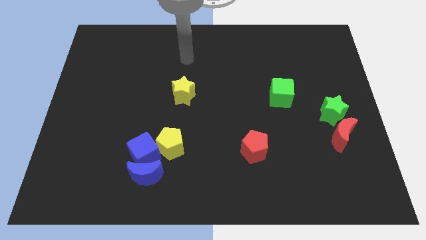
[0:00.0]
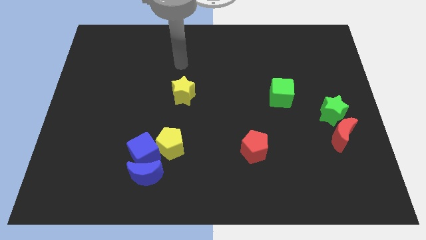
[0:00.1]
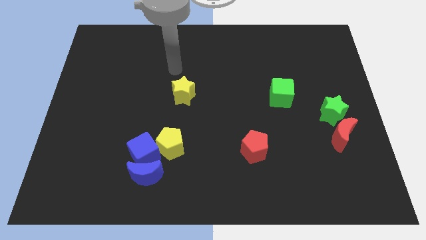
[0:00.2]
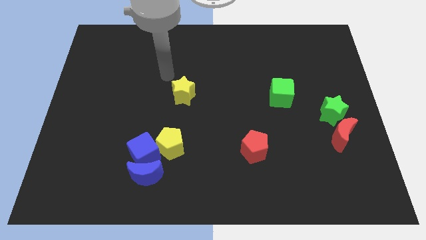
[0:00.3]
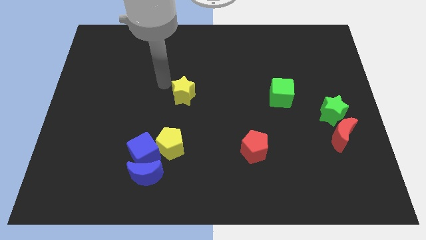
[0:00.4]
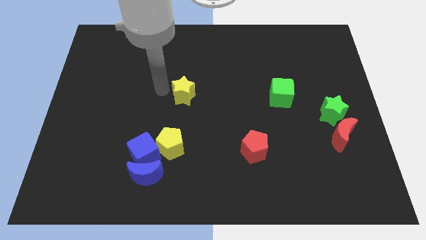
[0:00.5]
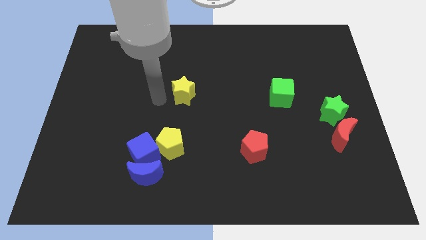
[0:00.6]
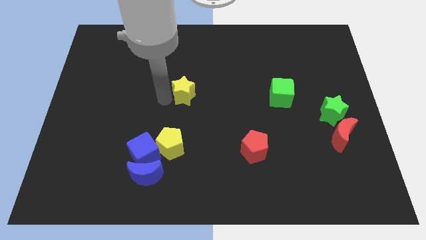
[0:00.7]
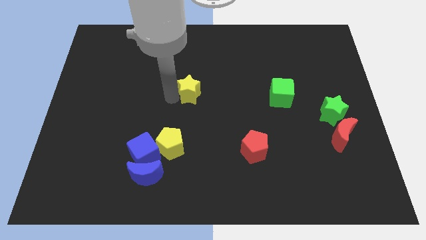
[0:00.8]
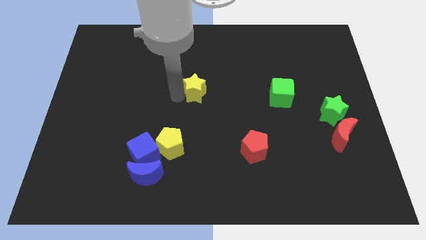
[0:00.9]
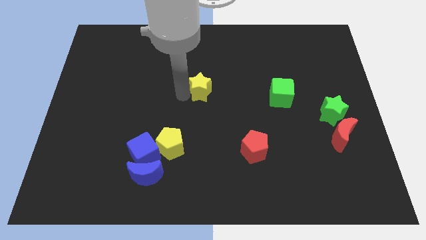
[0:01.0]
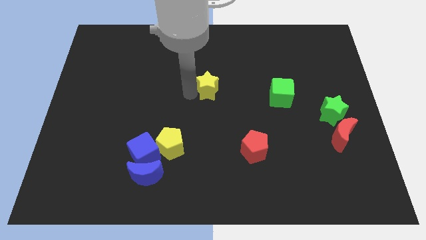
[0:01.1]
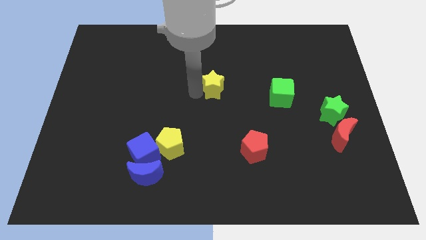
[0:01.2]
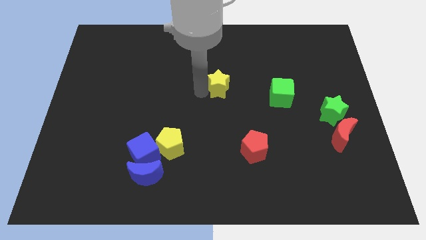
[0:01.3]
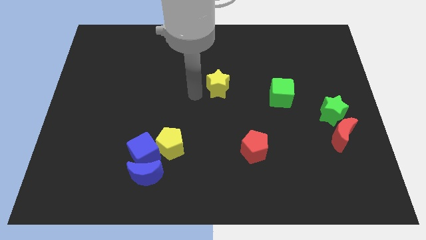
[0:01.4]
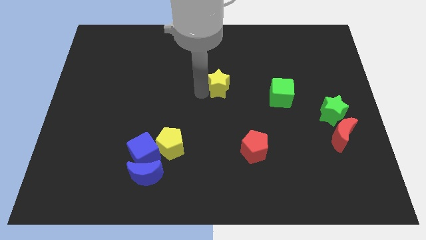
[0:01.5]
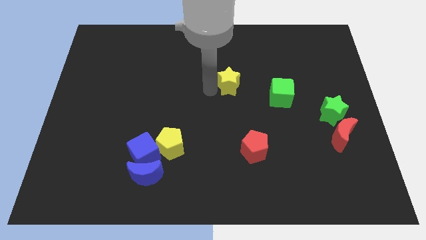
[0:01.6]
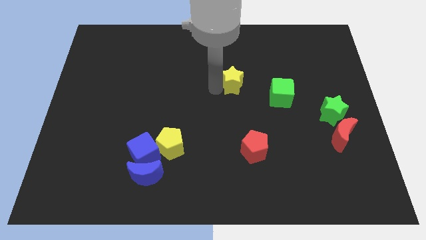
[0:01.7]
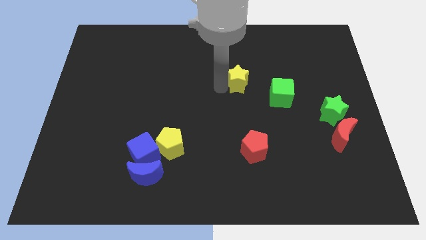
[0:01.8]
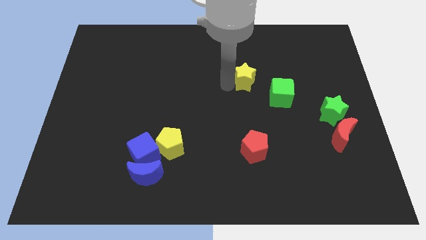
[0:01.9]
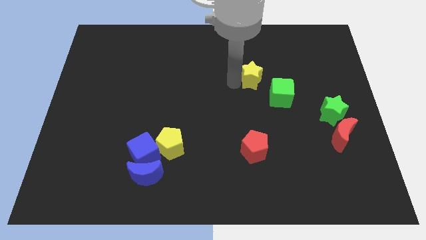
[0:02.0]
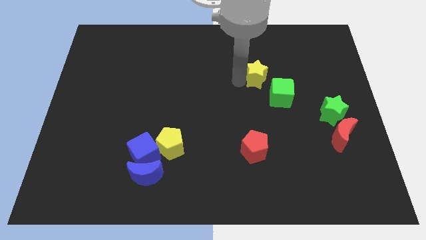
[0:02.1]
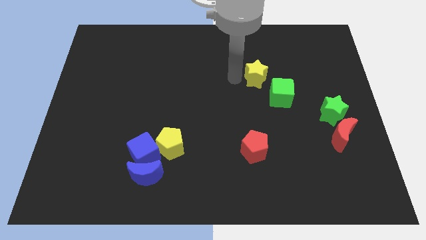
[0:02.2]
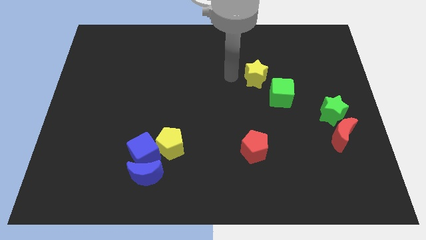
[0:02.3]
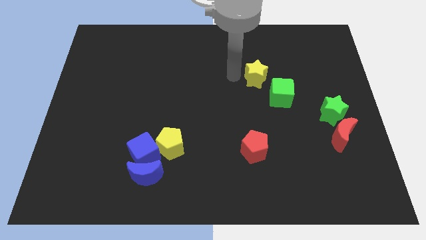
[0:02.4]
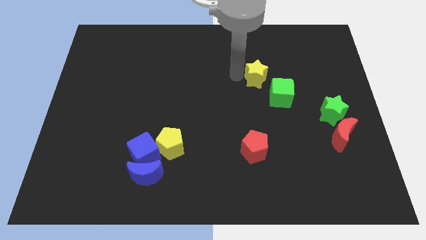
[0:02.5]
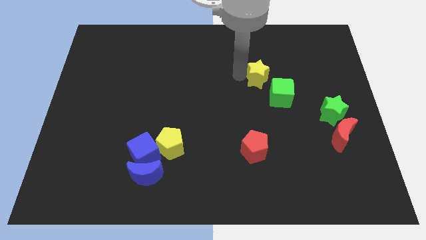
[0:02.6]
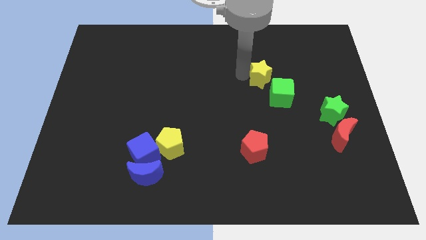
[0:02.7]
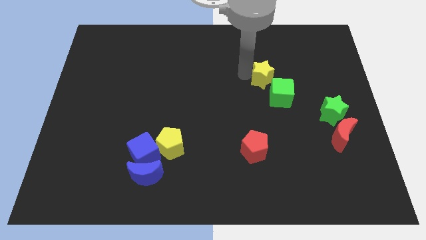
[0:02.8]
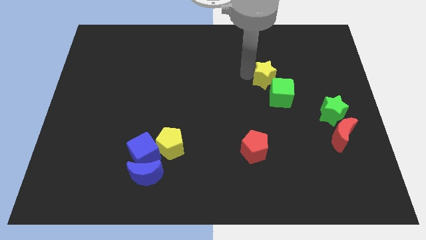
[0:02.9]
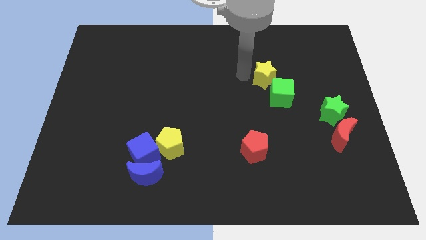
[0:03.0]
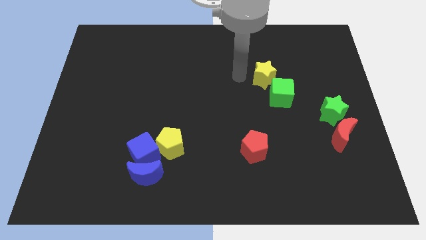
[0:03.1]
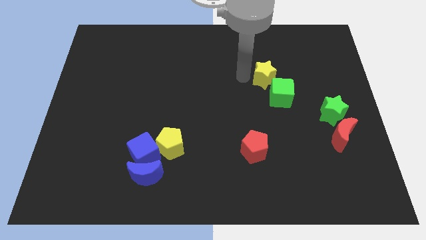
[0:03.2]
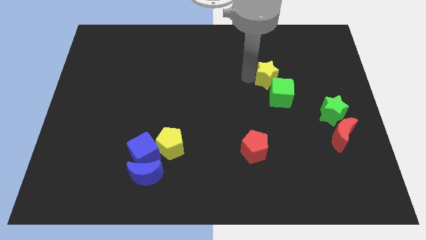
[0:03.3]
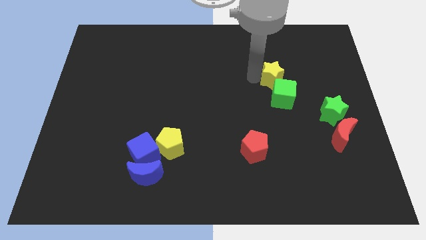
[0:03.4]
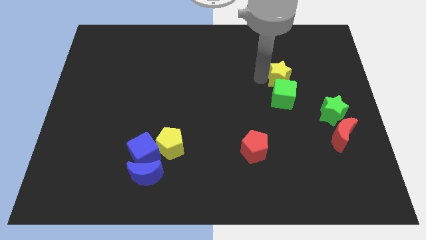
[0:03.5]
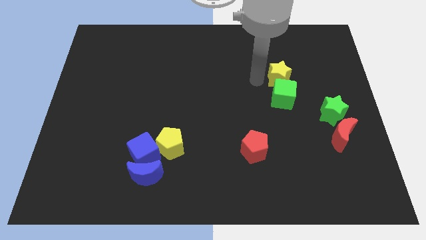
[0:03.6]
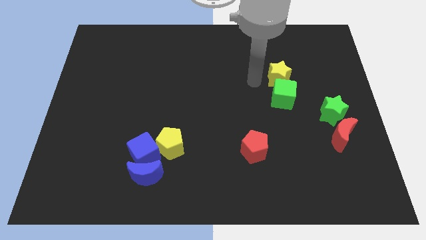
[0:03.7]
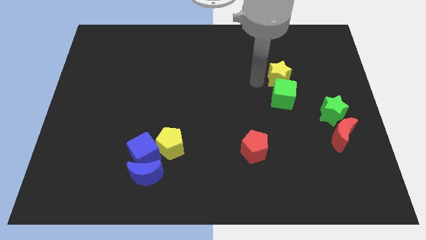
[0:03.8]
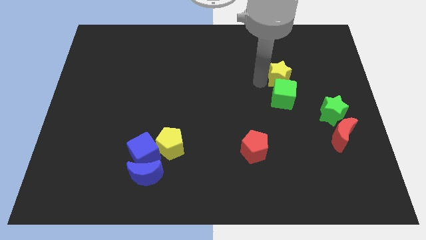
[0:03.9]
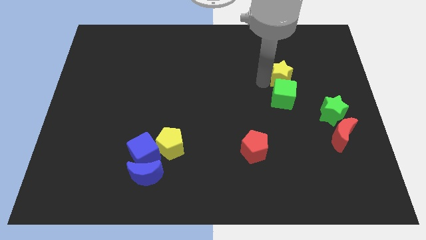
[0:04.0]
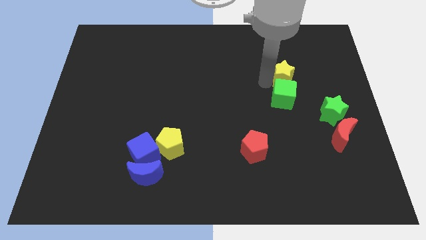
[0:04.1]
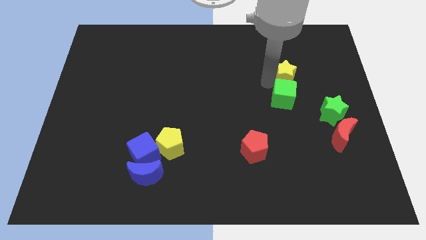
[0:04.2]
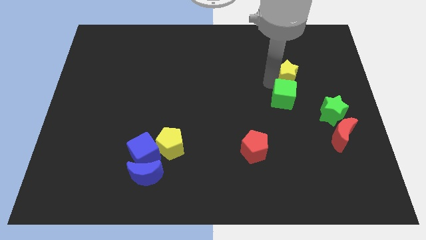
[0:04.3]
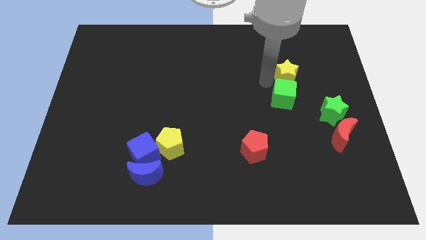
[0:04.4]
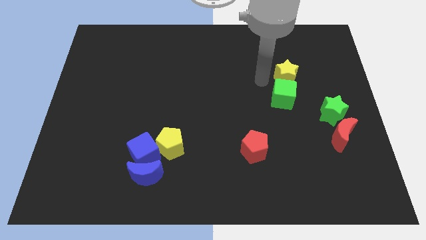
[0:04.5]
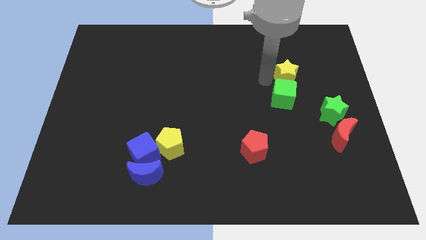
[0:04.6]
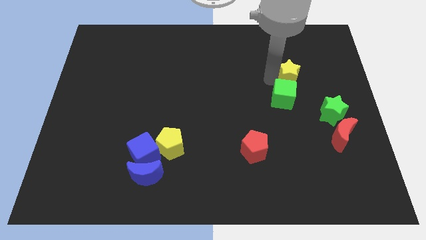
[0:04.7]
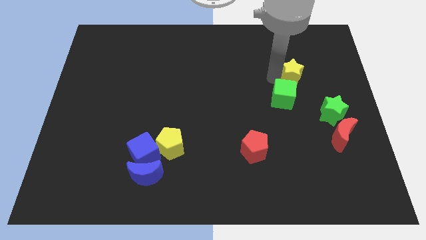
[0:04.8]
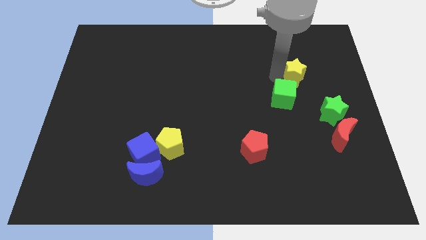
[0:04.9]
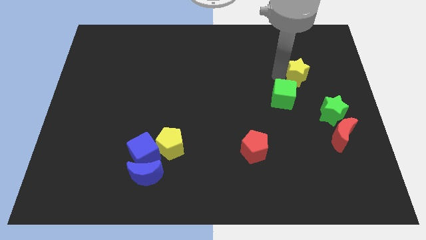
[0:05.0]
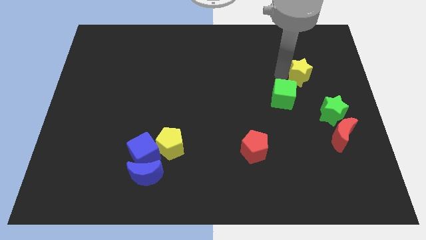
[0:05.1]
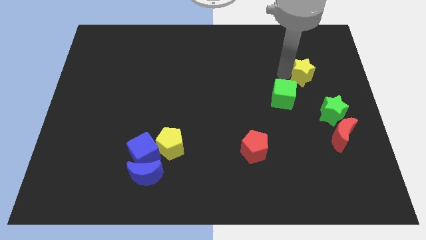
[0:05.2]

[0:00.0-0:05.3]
put the yellow star to the top of the green star

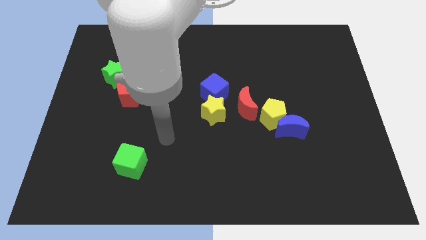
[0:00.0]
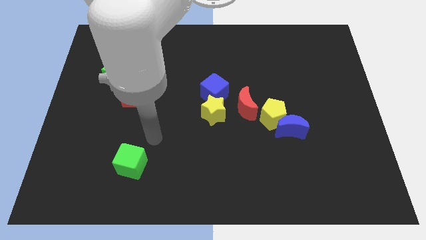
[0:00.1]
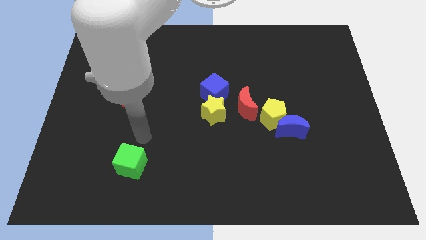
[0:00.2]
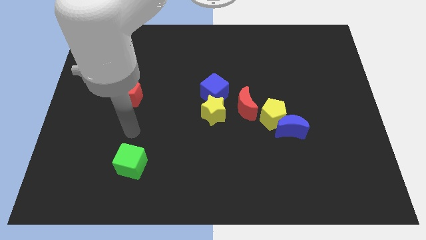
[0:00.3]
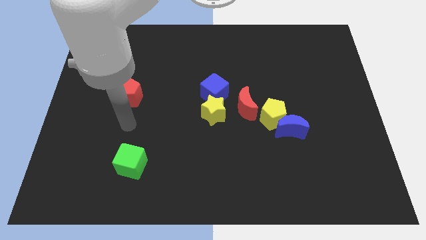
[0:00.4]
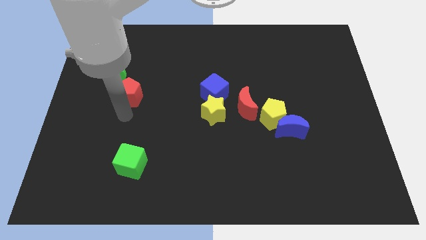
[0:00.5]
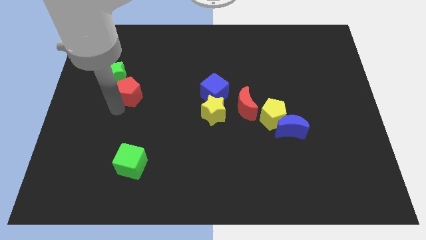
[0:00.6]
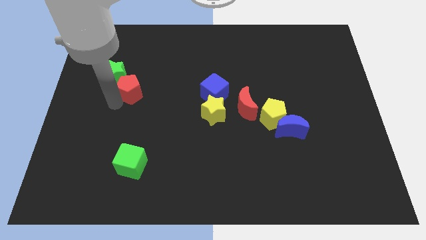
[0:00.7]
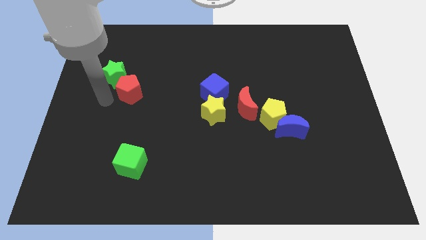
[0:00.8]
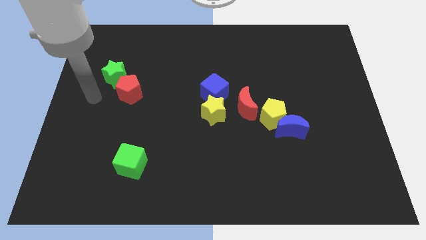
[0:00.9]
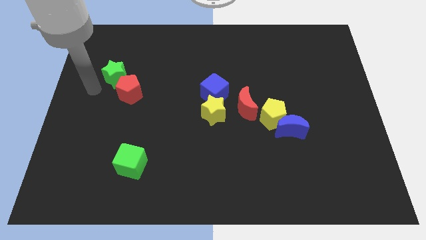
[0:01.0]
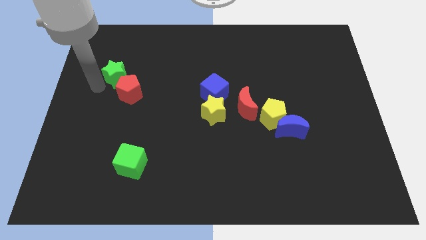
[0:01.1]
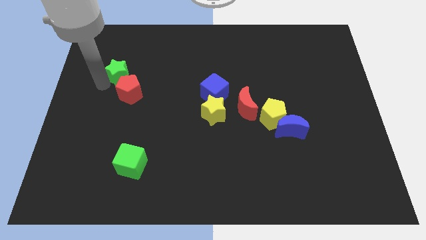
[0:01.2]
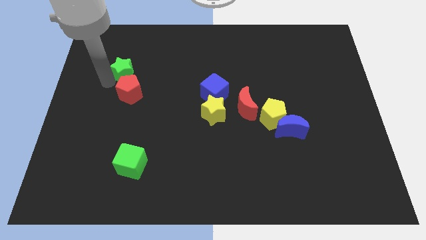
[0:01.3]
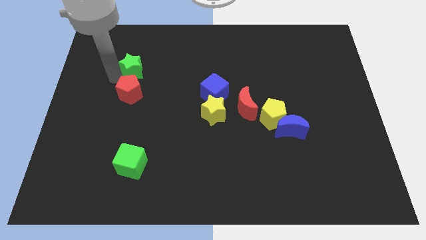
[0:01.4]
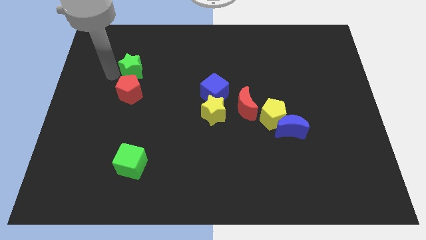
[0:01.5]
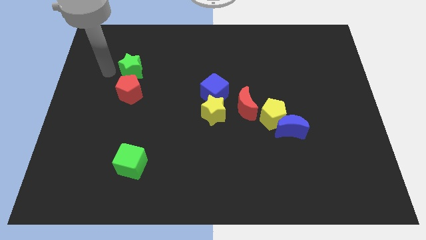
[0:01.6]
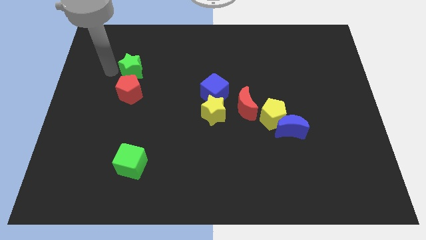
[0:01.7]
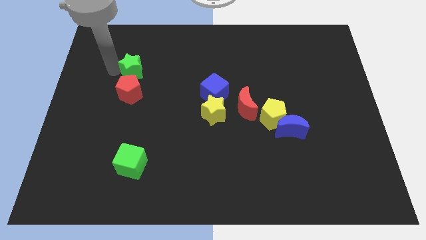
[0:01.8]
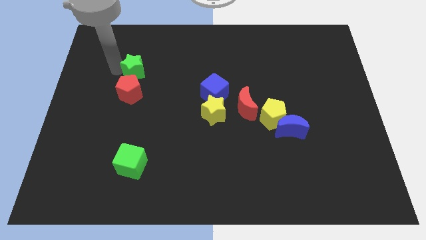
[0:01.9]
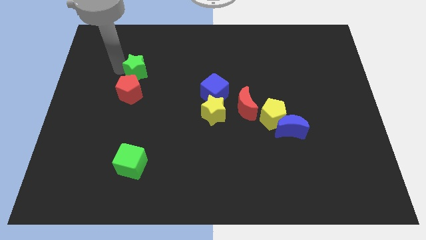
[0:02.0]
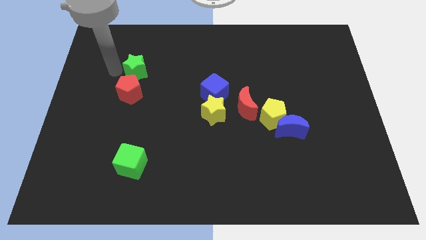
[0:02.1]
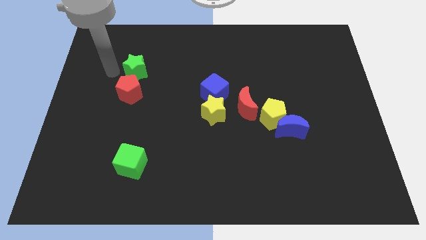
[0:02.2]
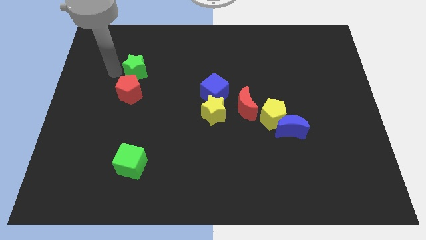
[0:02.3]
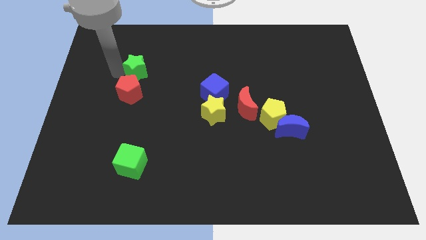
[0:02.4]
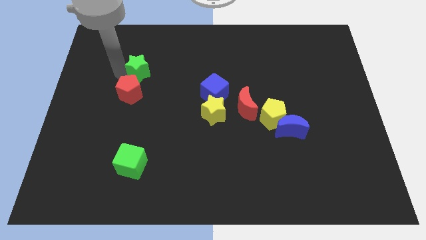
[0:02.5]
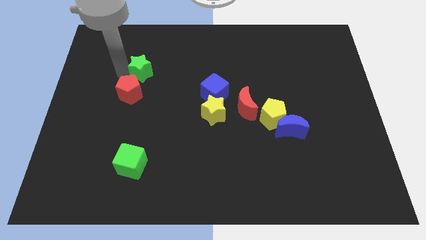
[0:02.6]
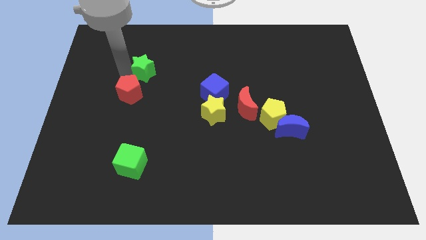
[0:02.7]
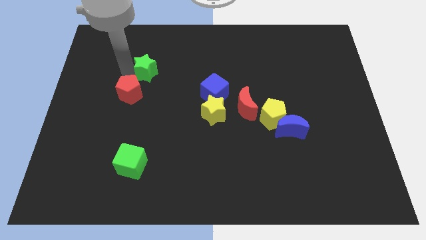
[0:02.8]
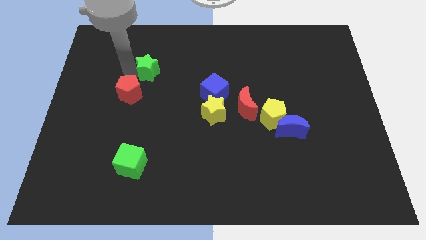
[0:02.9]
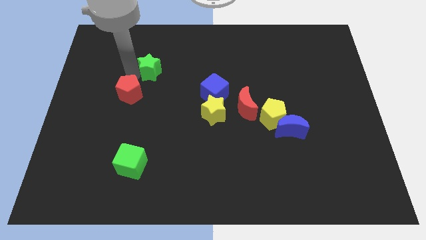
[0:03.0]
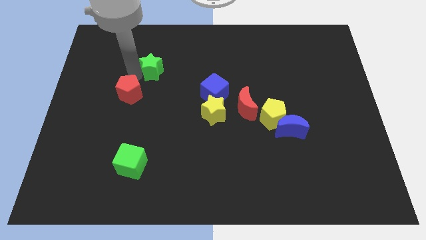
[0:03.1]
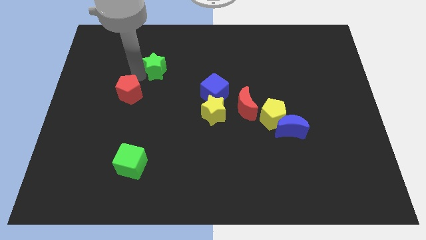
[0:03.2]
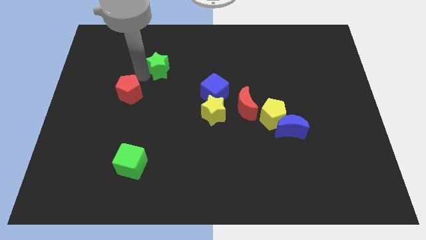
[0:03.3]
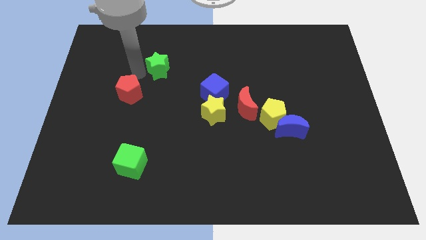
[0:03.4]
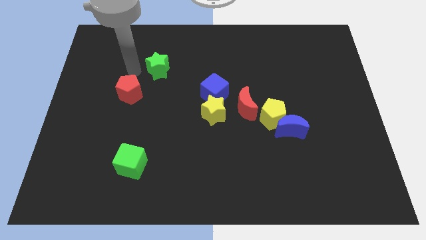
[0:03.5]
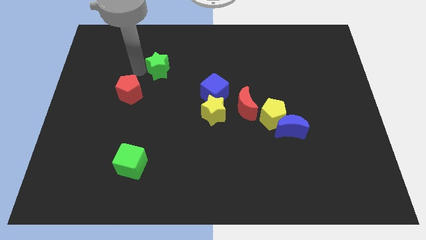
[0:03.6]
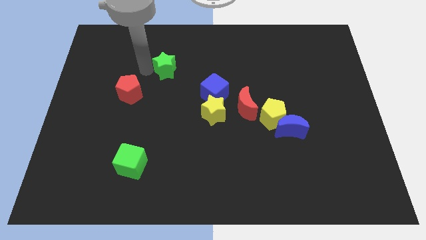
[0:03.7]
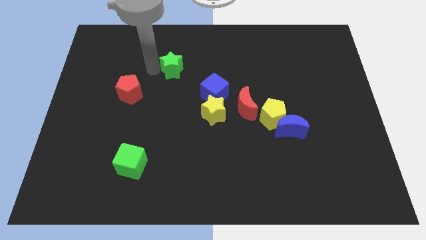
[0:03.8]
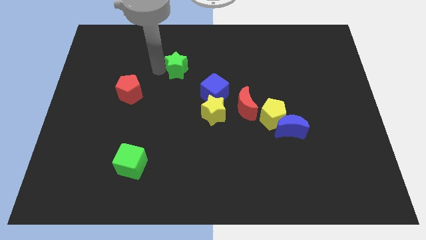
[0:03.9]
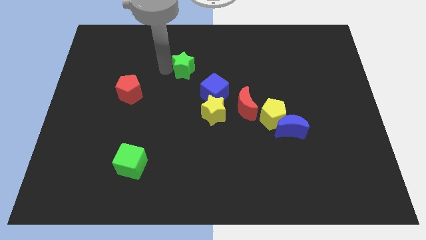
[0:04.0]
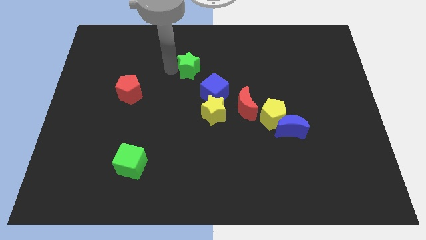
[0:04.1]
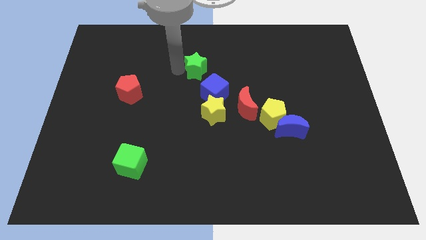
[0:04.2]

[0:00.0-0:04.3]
slide the green star to the top side of the blue cube
